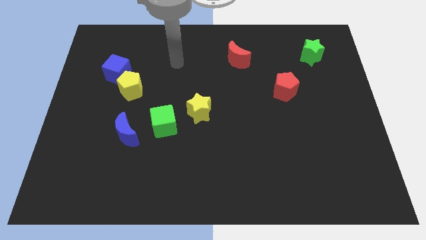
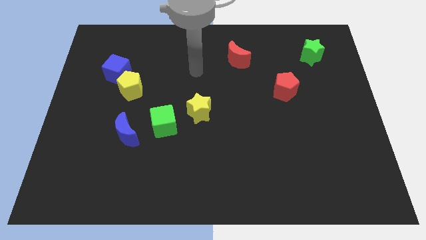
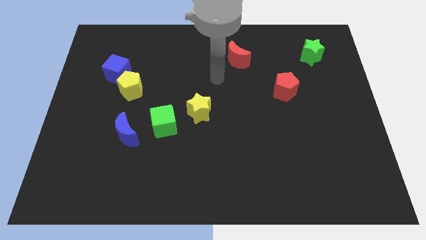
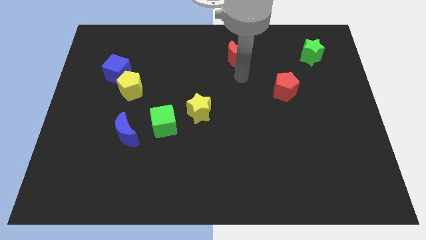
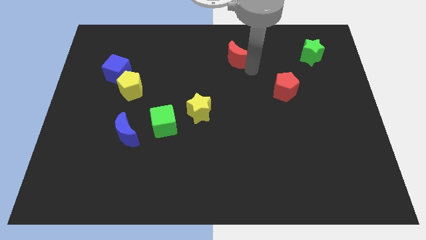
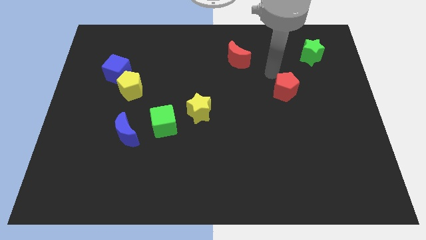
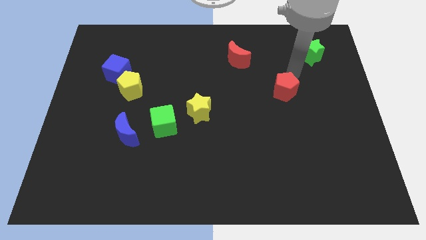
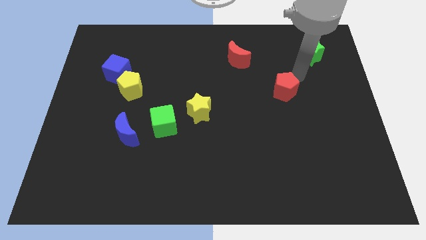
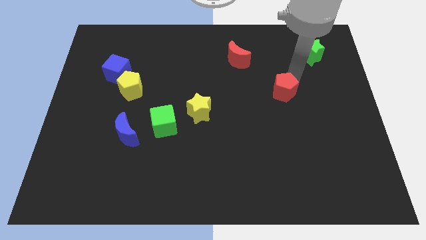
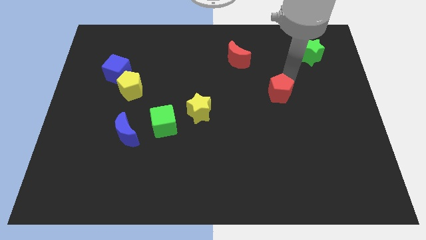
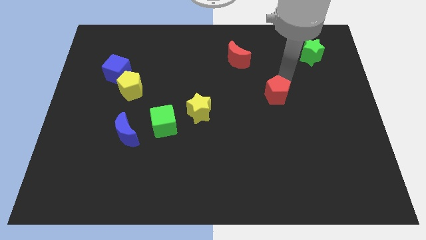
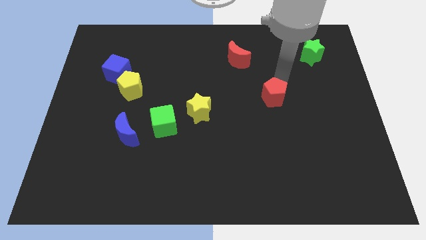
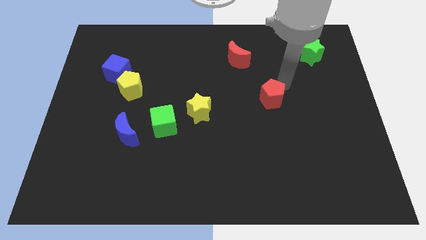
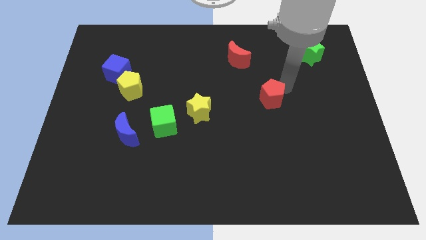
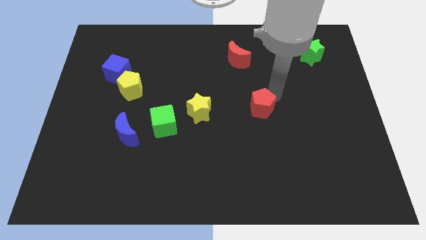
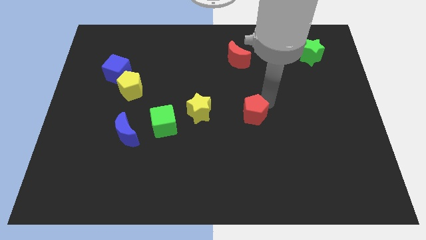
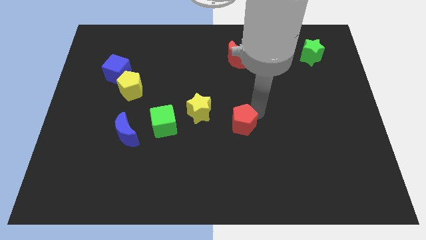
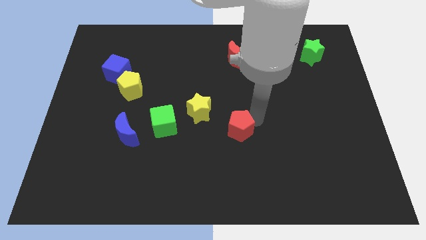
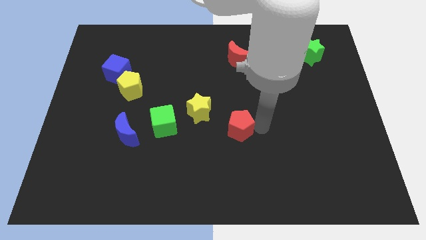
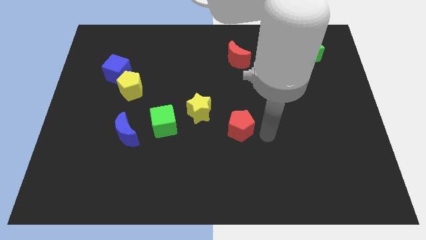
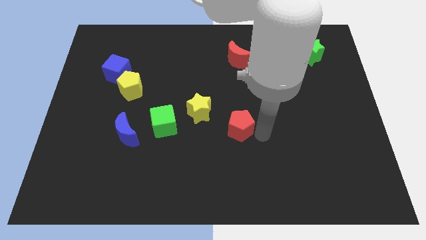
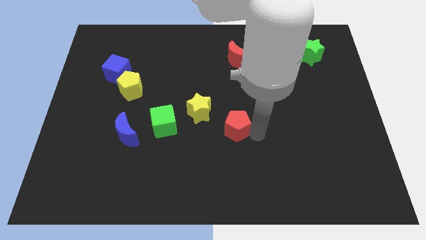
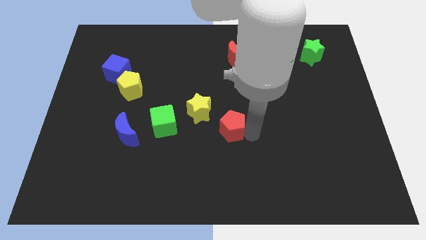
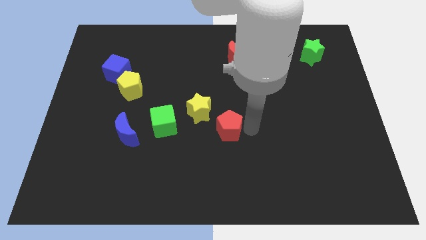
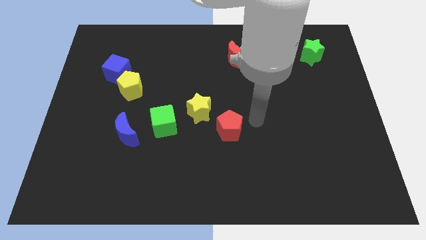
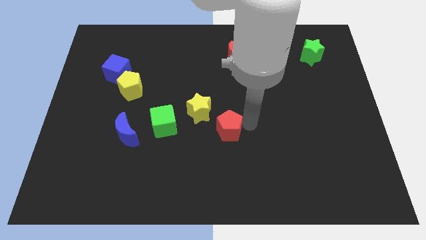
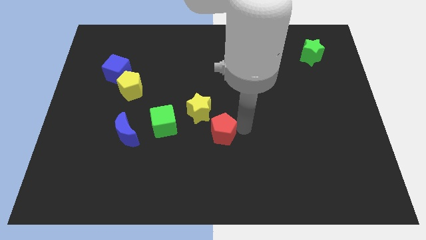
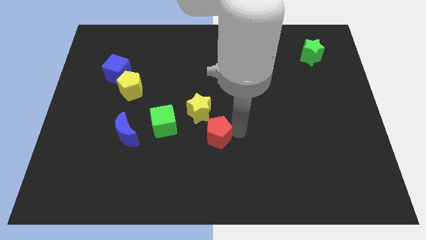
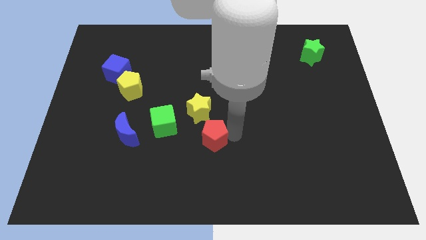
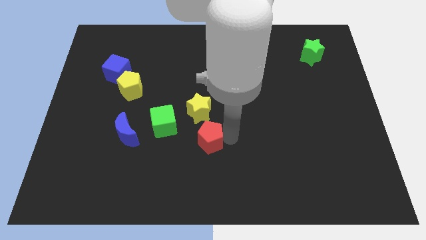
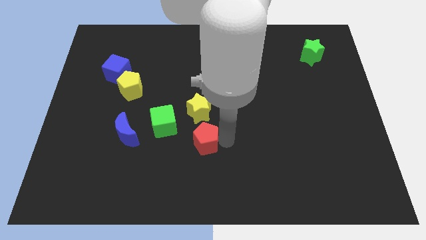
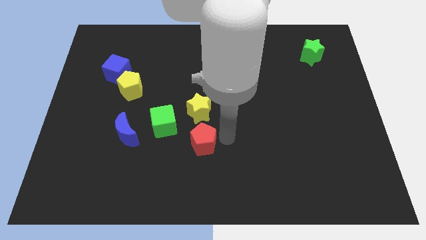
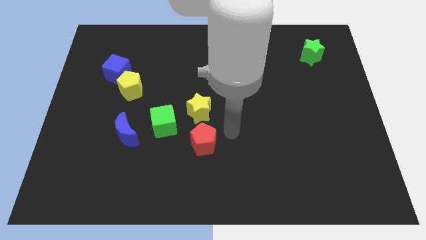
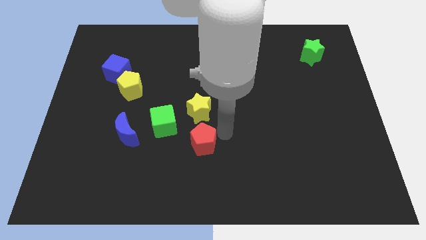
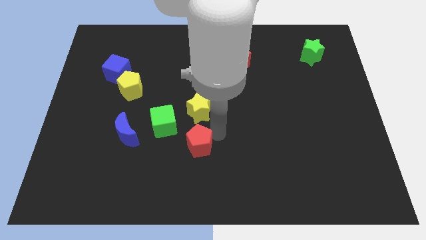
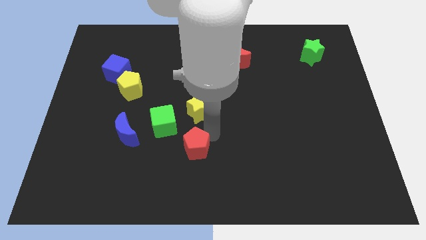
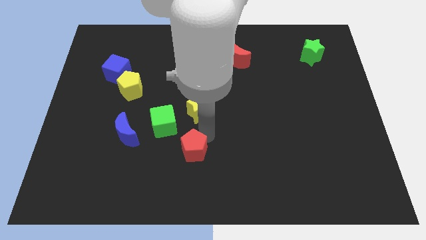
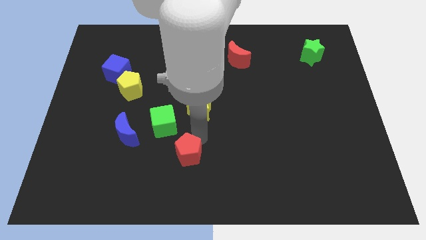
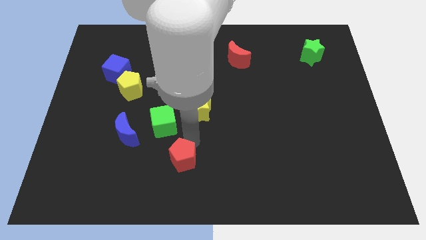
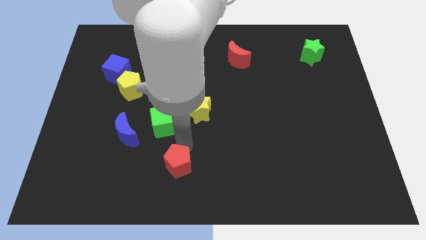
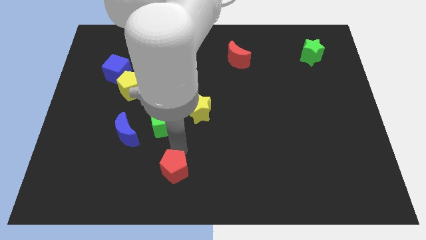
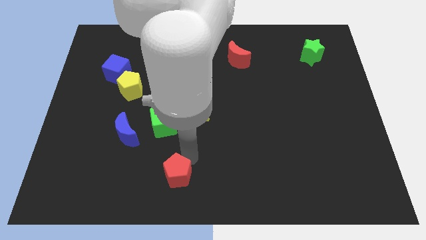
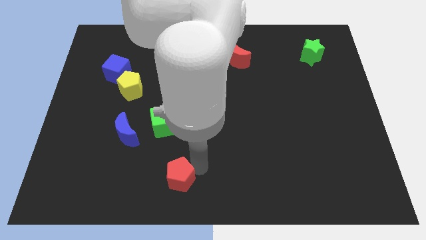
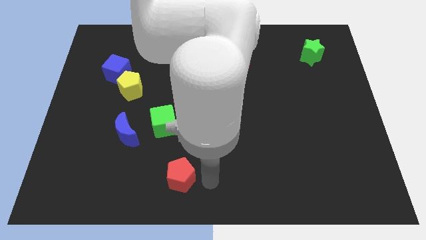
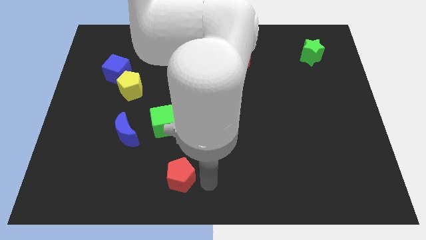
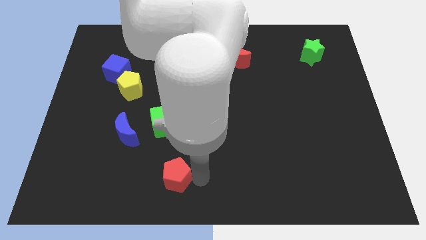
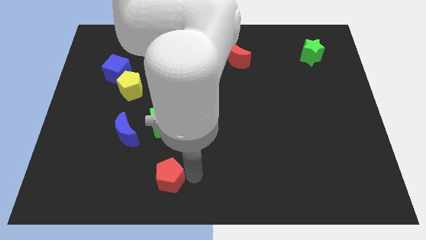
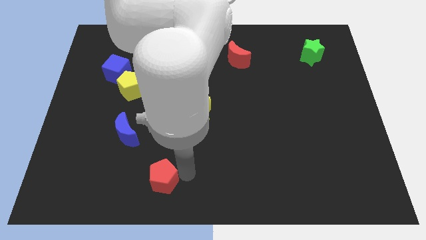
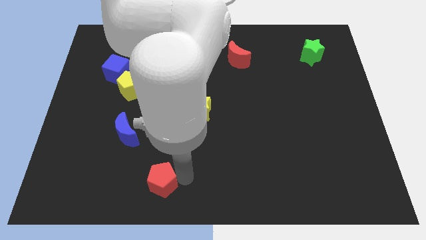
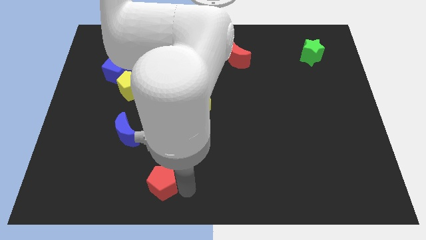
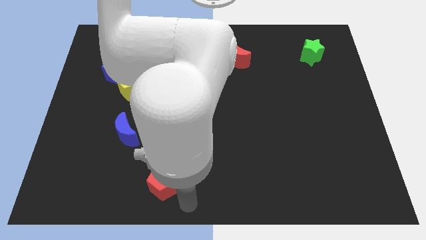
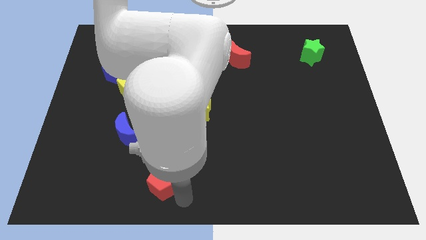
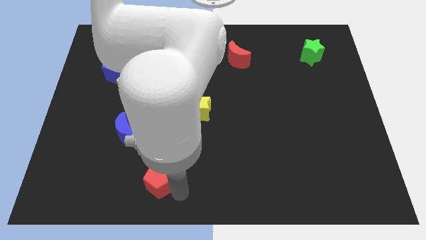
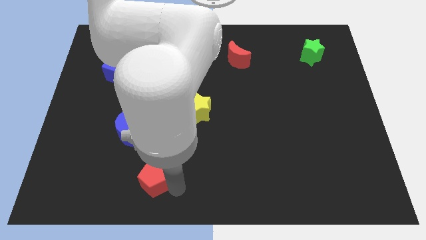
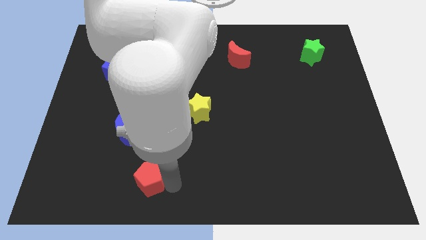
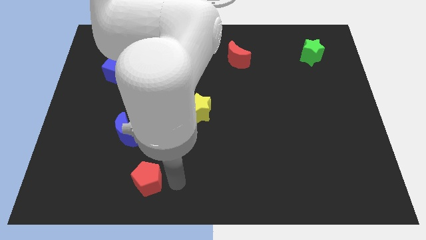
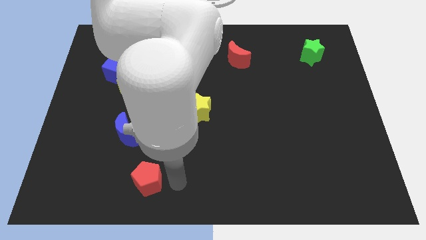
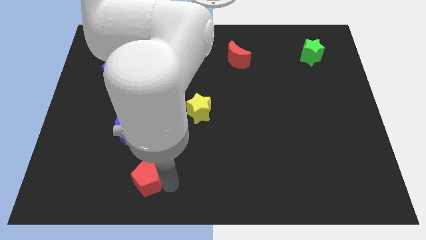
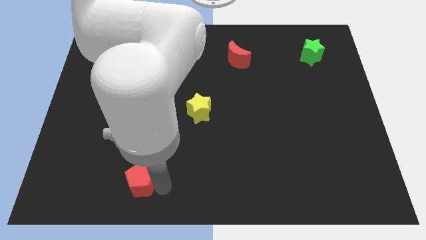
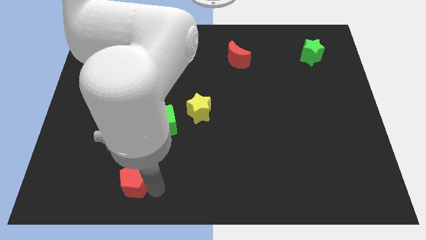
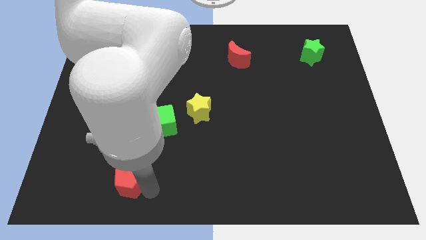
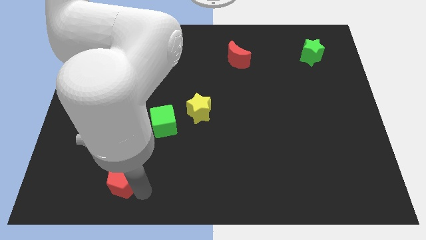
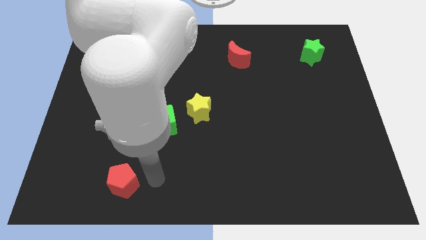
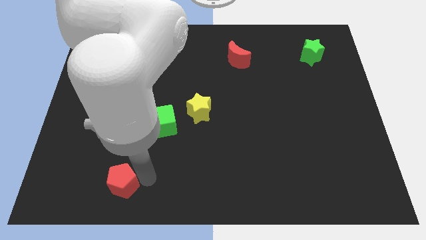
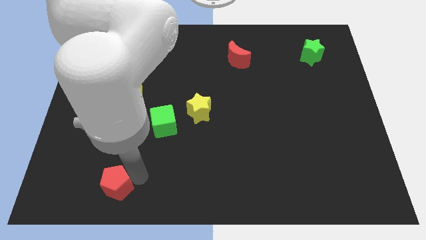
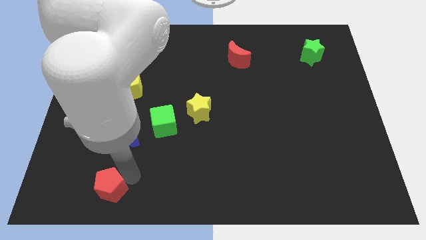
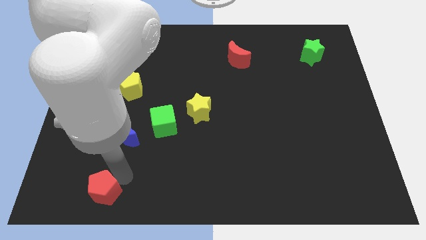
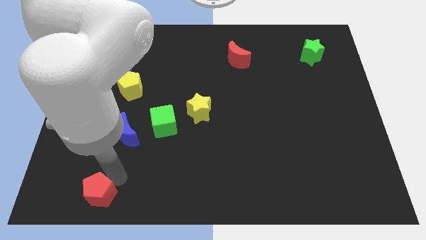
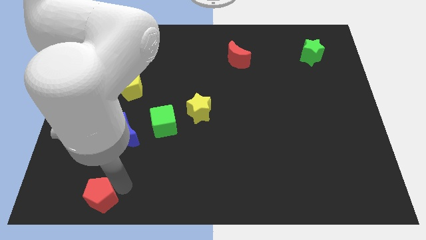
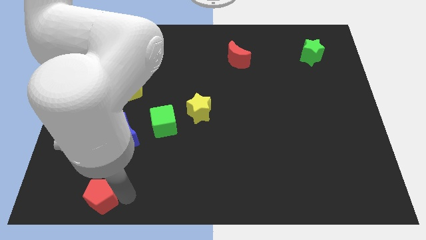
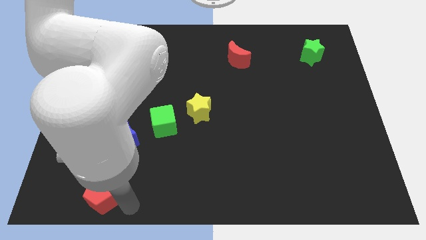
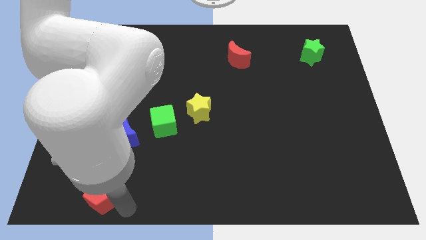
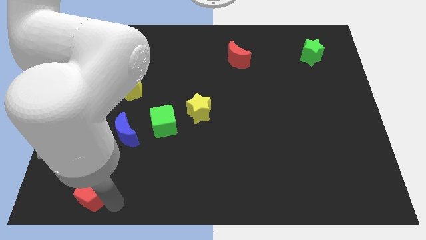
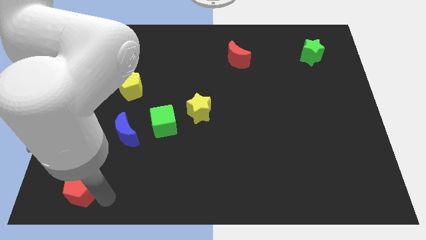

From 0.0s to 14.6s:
push the red pentagon to the bottom left of the board

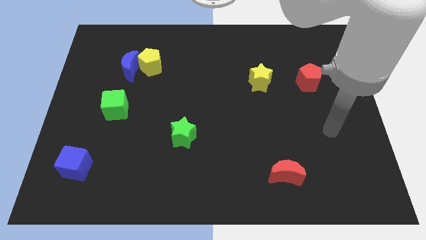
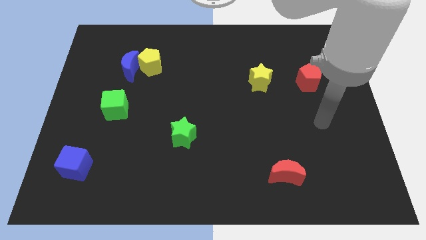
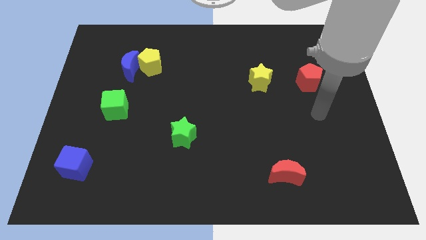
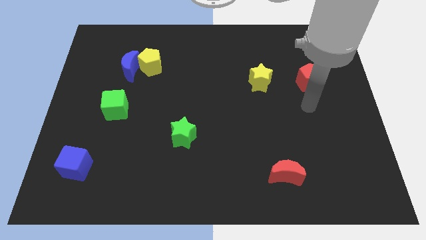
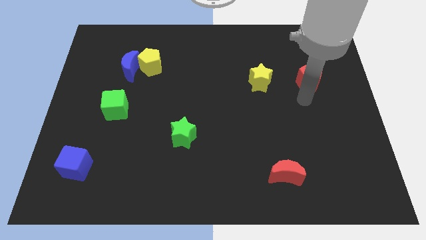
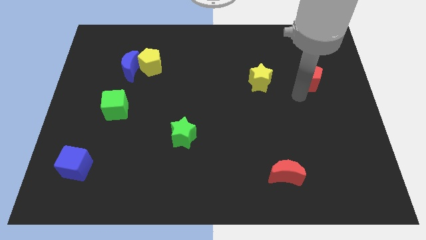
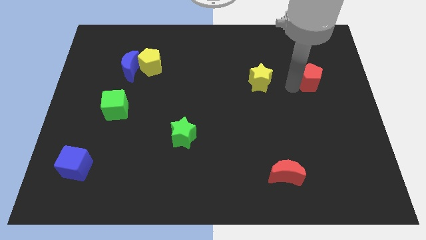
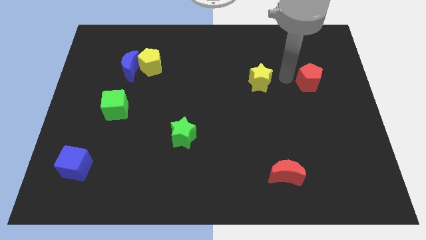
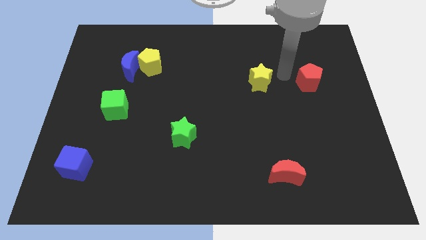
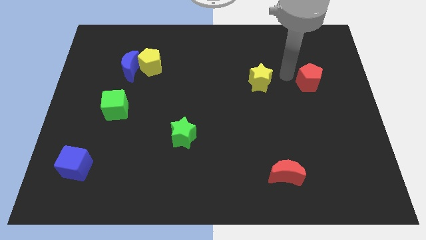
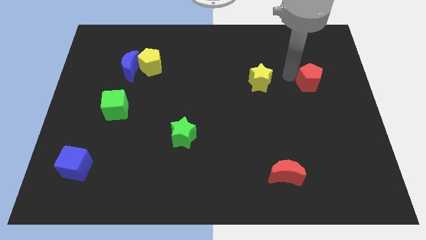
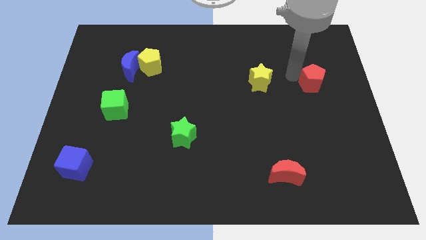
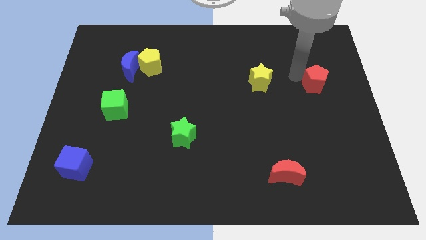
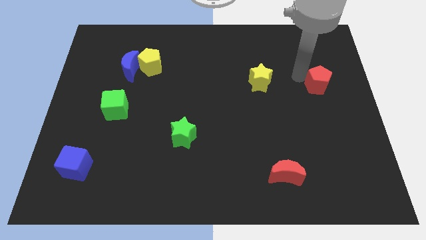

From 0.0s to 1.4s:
put the red pentagon to the center right
